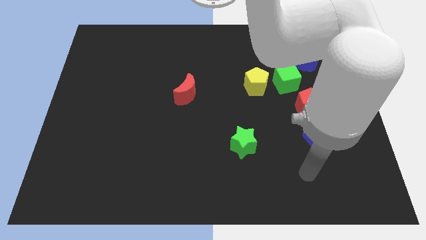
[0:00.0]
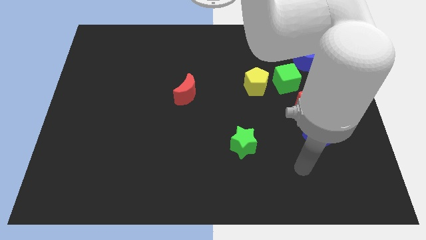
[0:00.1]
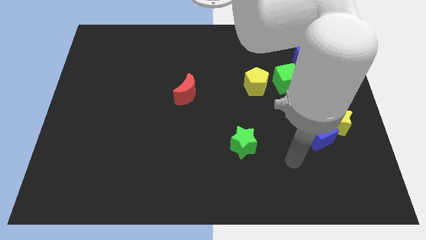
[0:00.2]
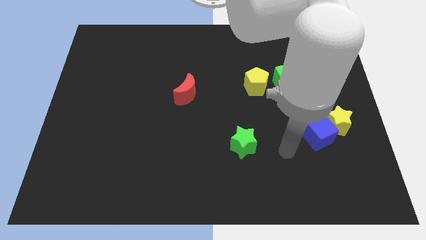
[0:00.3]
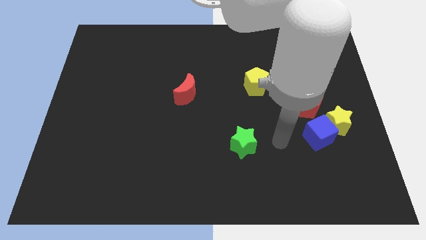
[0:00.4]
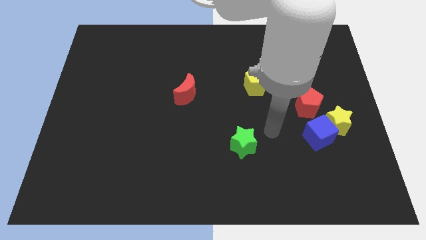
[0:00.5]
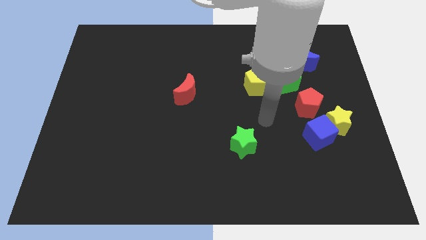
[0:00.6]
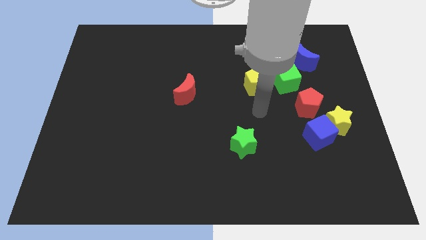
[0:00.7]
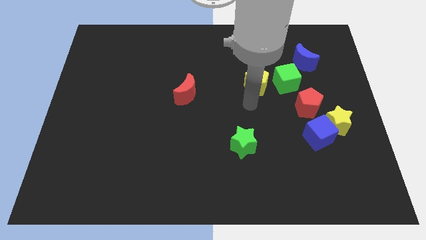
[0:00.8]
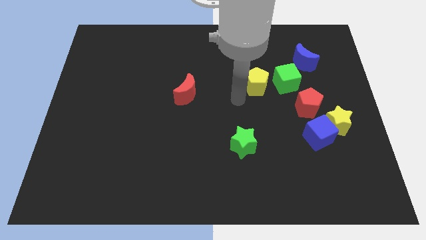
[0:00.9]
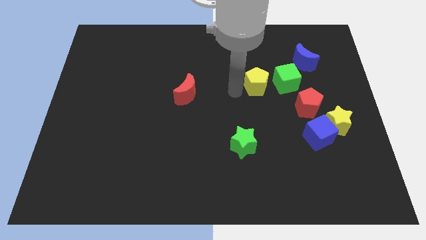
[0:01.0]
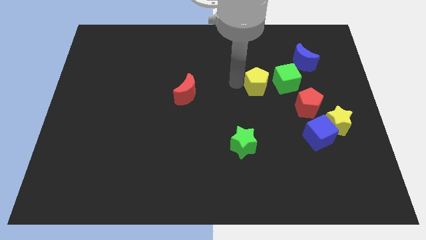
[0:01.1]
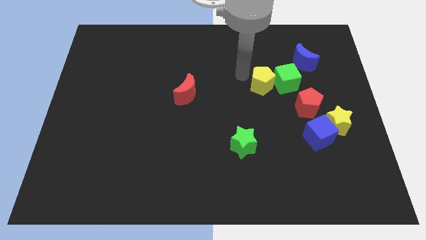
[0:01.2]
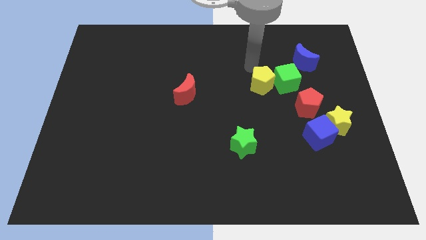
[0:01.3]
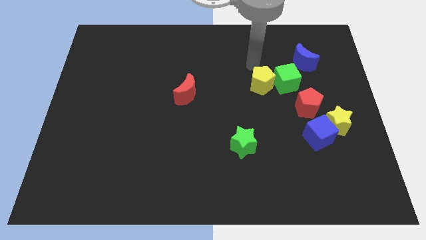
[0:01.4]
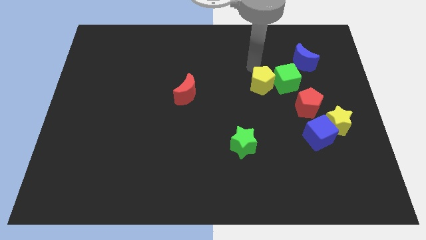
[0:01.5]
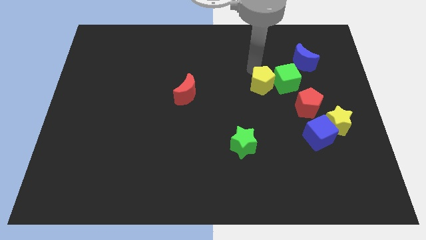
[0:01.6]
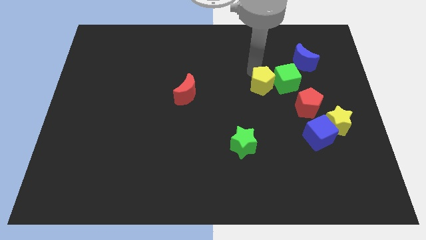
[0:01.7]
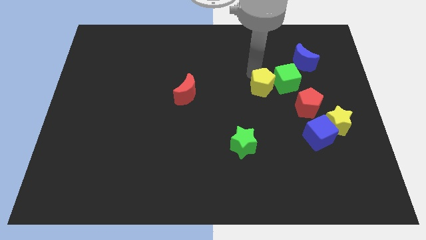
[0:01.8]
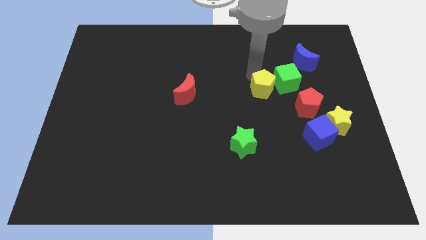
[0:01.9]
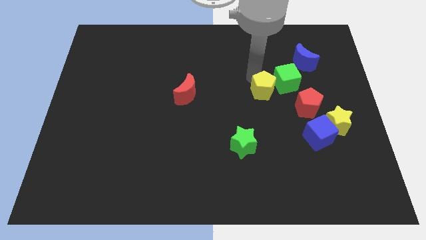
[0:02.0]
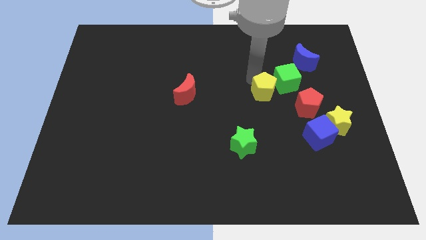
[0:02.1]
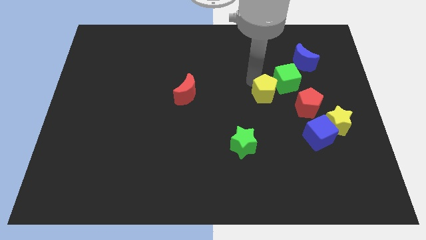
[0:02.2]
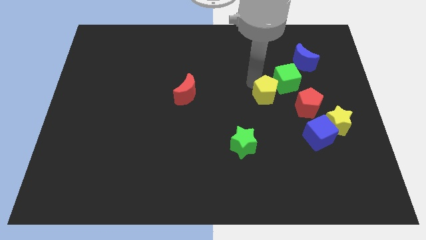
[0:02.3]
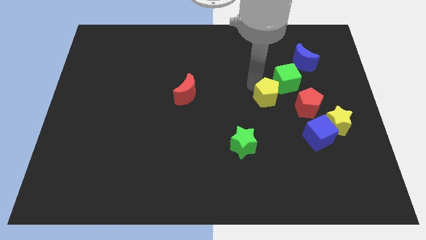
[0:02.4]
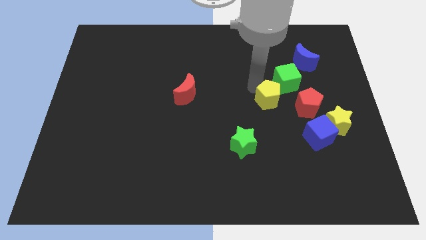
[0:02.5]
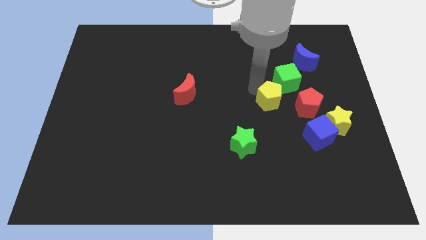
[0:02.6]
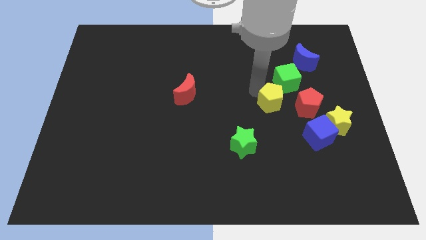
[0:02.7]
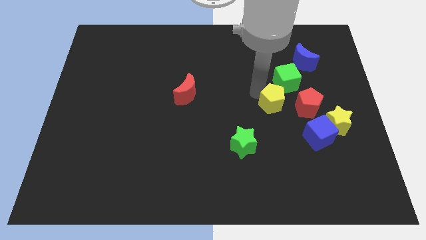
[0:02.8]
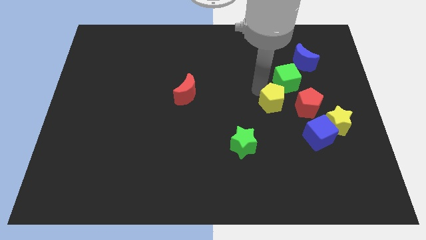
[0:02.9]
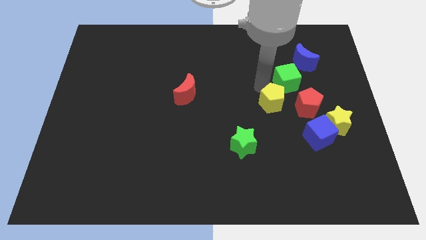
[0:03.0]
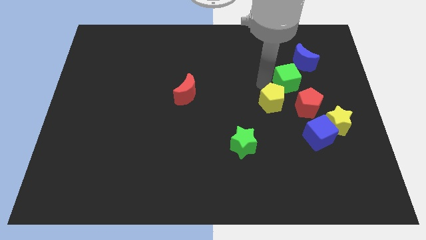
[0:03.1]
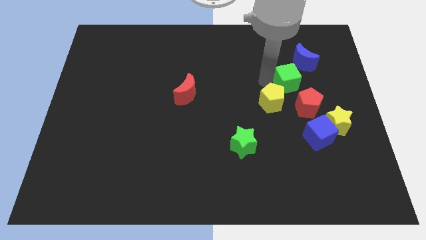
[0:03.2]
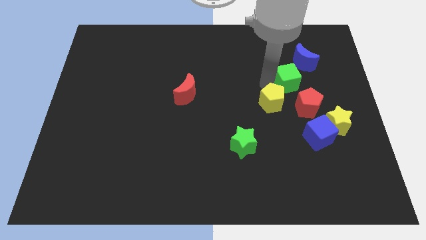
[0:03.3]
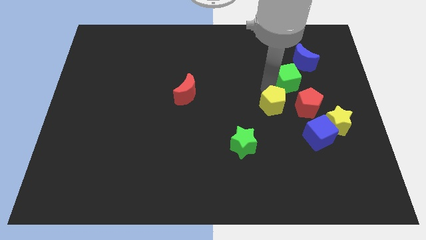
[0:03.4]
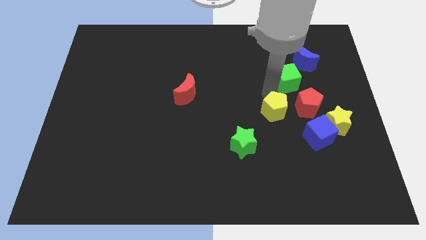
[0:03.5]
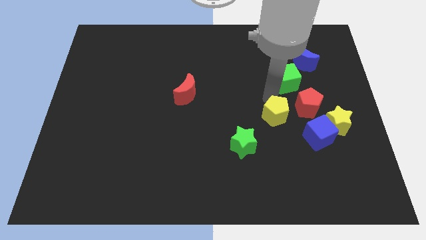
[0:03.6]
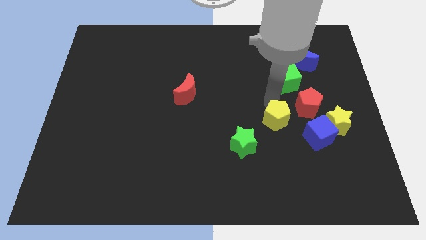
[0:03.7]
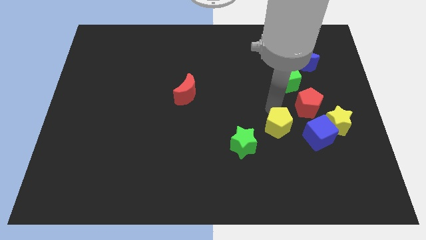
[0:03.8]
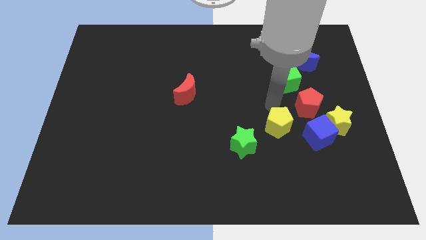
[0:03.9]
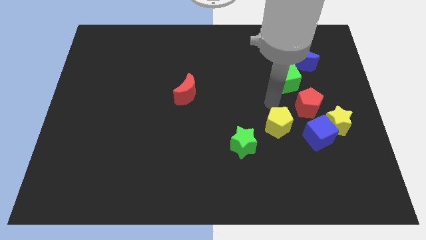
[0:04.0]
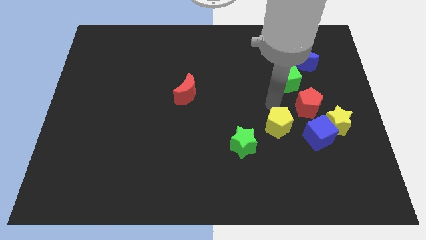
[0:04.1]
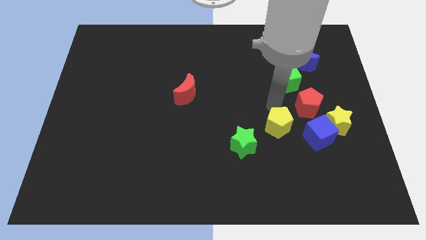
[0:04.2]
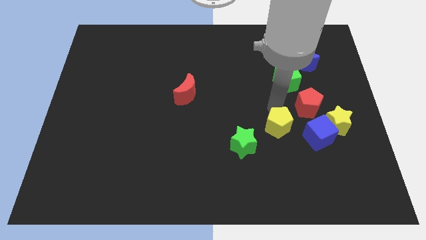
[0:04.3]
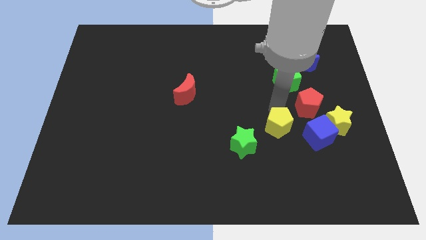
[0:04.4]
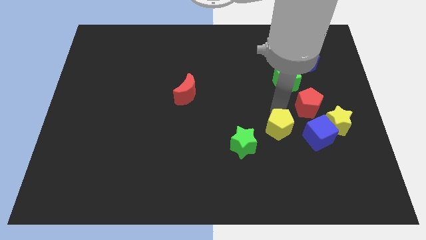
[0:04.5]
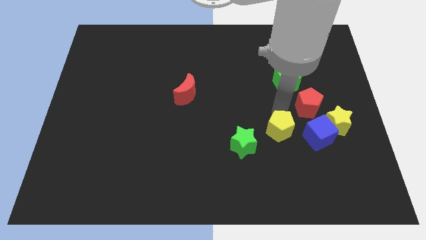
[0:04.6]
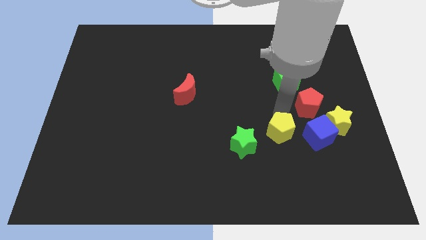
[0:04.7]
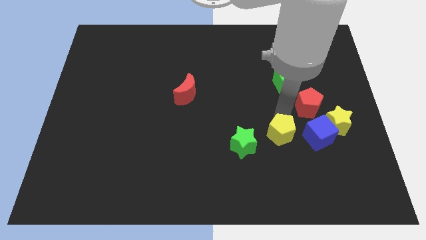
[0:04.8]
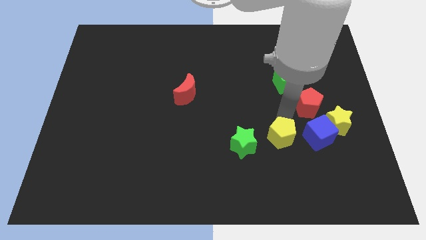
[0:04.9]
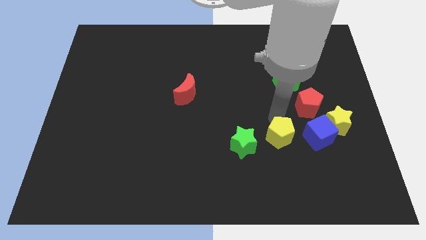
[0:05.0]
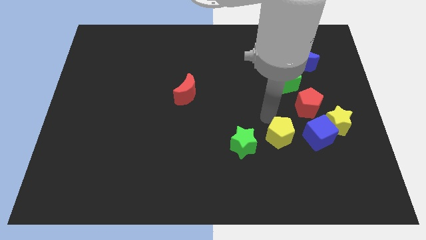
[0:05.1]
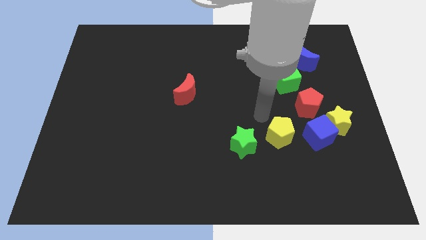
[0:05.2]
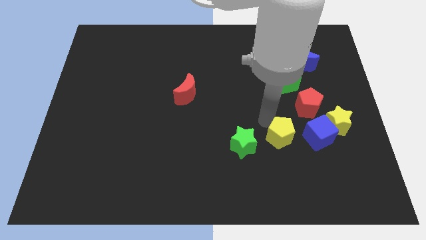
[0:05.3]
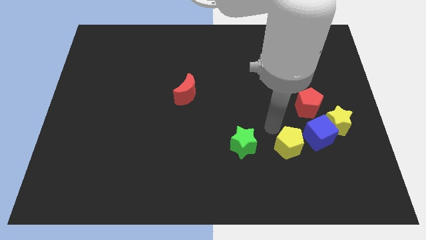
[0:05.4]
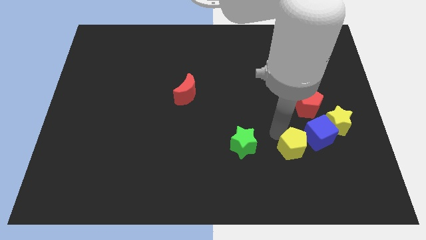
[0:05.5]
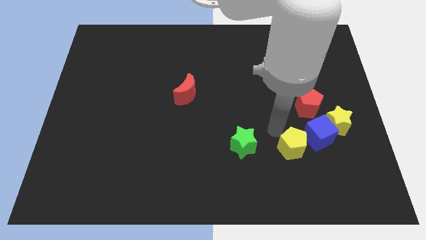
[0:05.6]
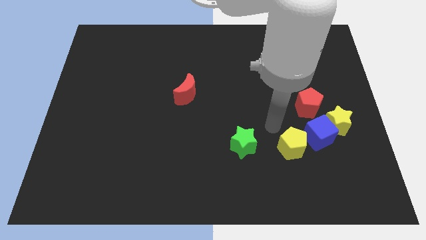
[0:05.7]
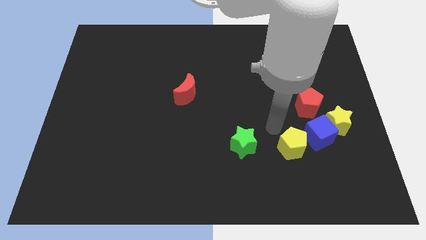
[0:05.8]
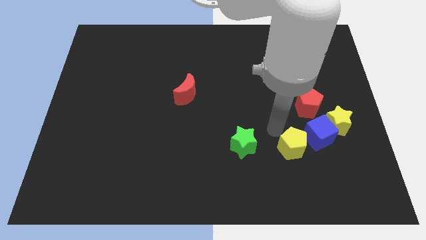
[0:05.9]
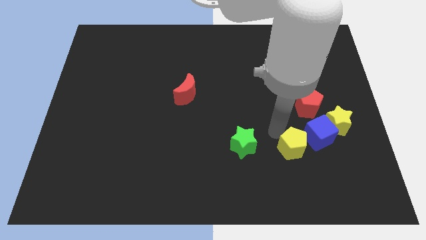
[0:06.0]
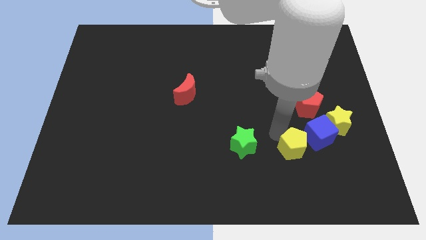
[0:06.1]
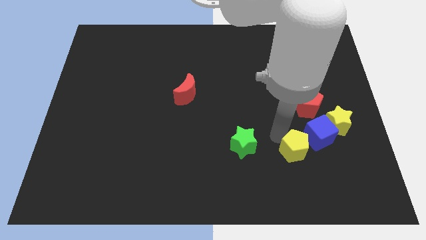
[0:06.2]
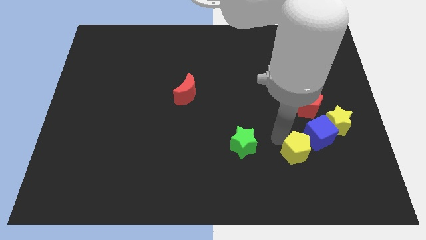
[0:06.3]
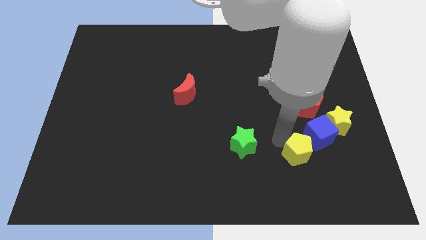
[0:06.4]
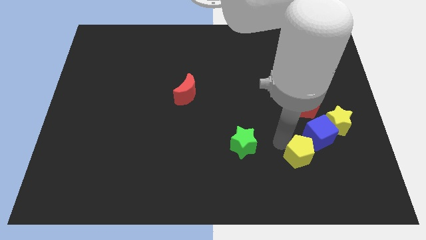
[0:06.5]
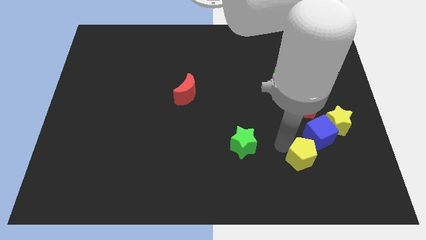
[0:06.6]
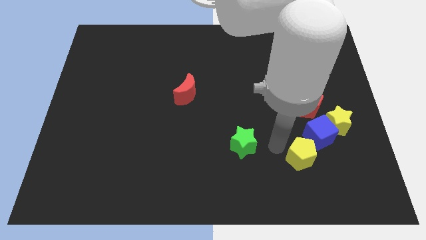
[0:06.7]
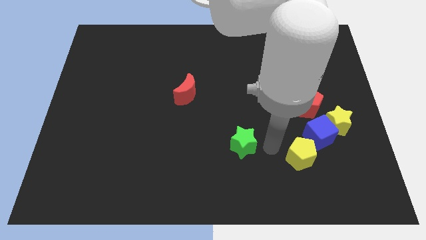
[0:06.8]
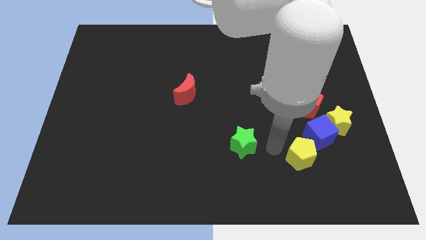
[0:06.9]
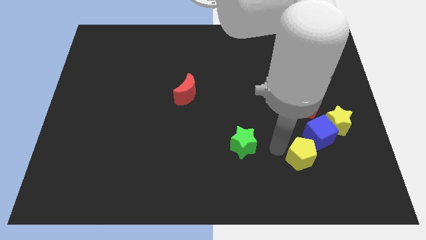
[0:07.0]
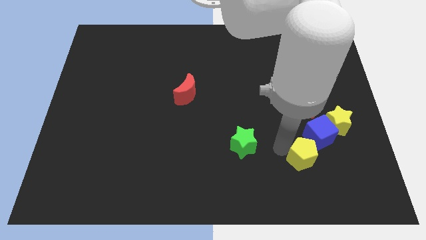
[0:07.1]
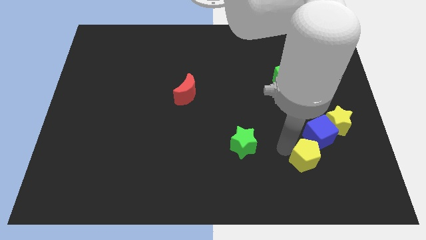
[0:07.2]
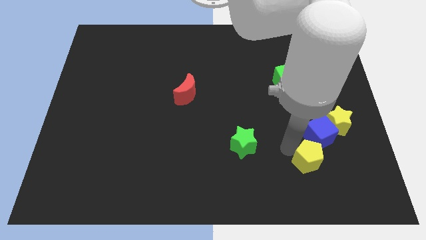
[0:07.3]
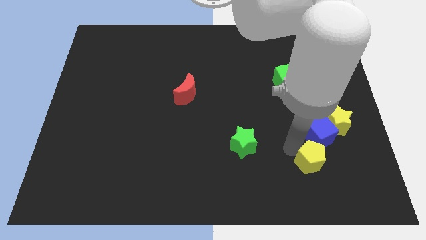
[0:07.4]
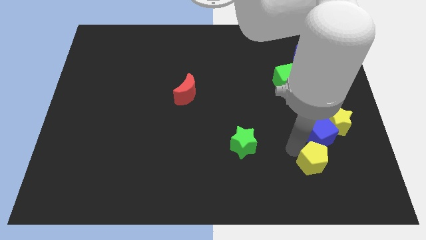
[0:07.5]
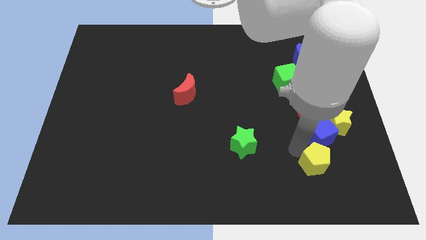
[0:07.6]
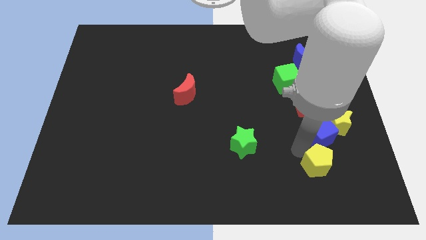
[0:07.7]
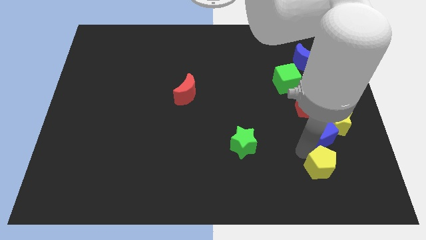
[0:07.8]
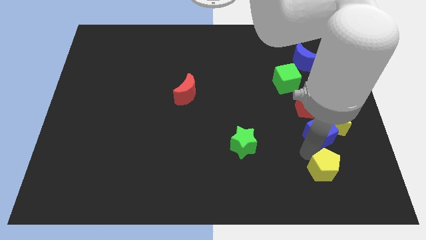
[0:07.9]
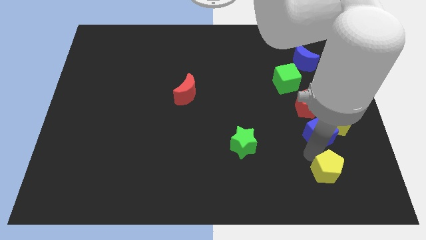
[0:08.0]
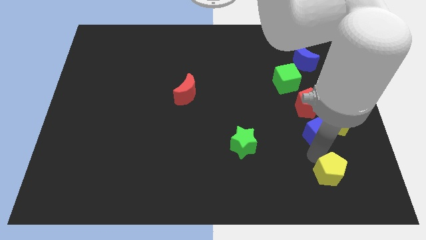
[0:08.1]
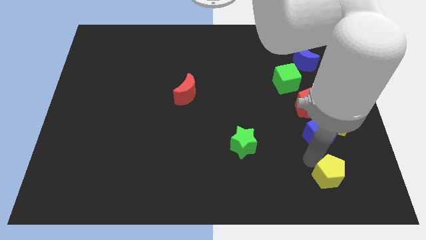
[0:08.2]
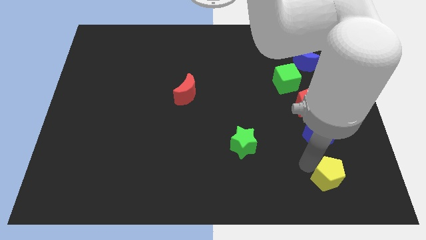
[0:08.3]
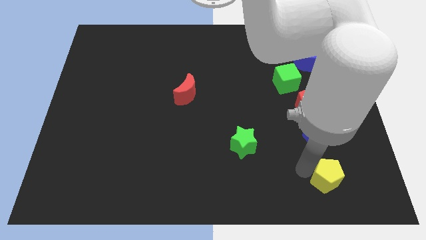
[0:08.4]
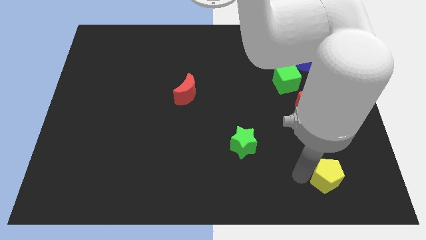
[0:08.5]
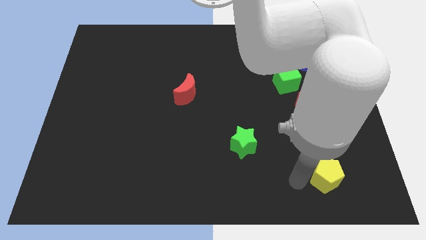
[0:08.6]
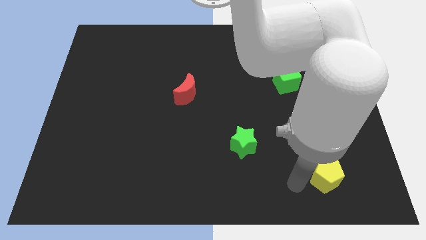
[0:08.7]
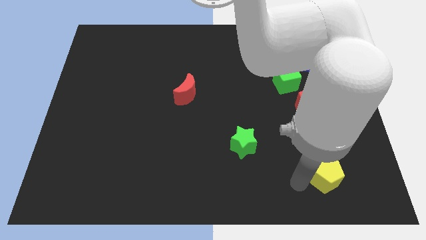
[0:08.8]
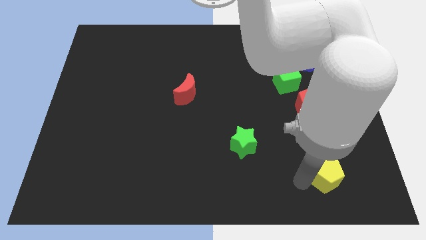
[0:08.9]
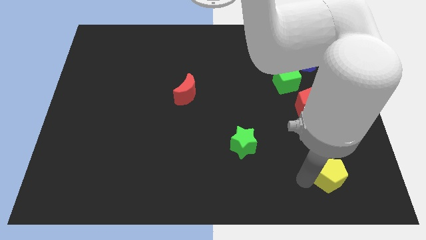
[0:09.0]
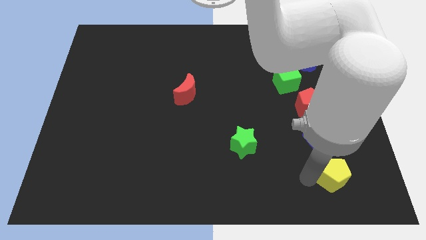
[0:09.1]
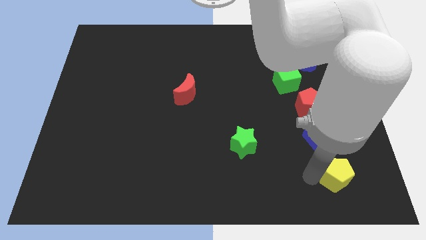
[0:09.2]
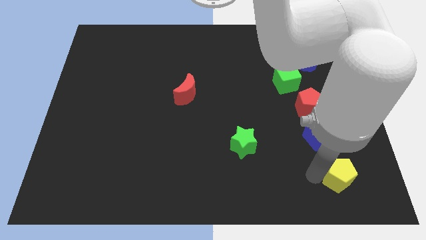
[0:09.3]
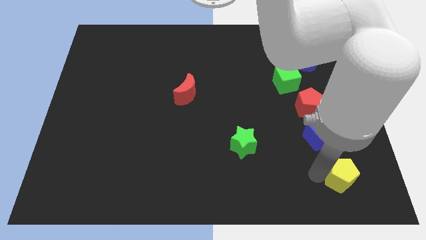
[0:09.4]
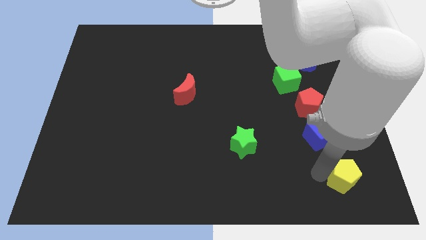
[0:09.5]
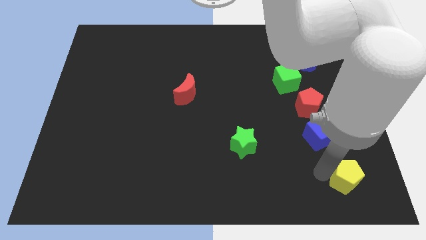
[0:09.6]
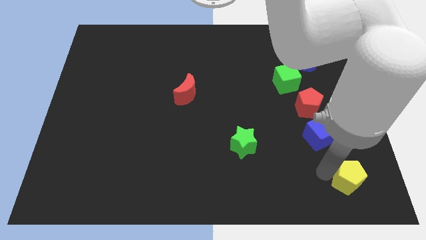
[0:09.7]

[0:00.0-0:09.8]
push the yellow pentagon to the bottom right of the board
